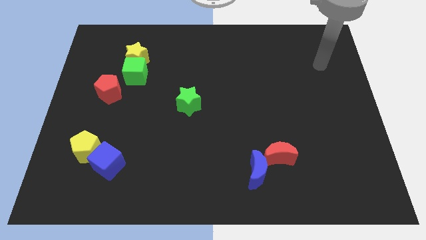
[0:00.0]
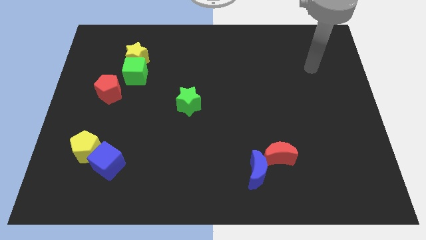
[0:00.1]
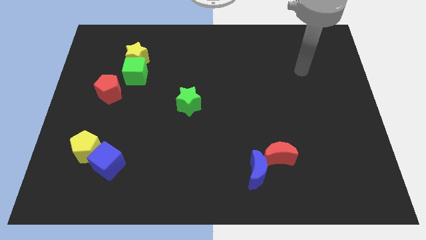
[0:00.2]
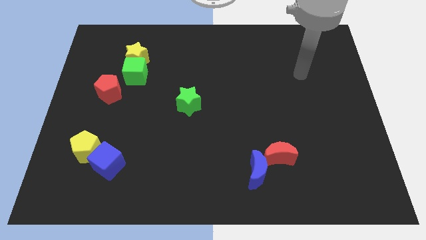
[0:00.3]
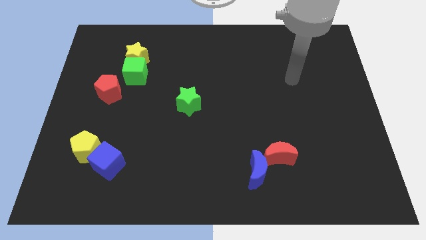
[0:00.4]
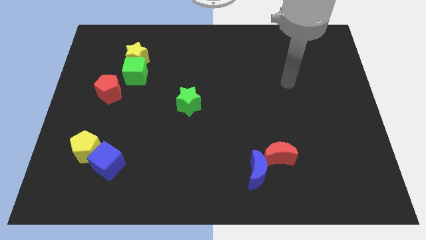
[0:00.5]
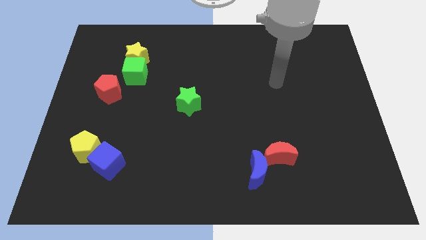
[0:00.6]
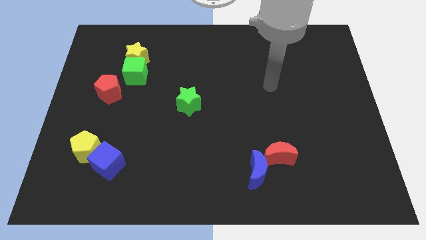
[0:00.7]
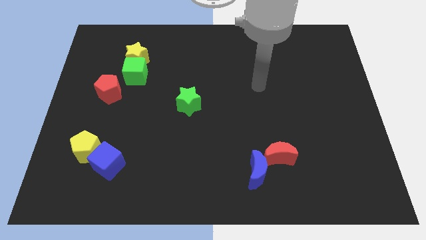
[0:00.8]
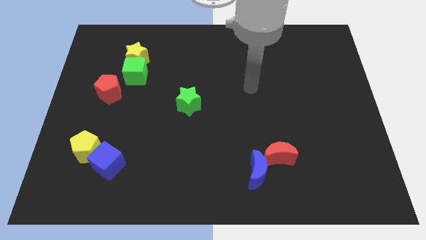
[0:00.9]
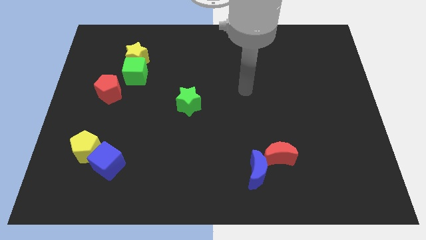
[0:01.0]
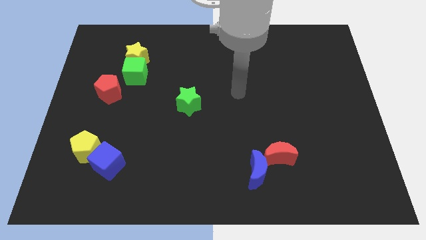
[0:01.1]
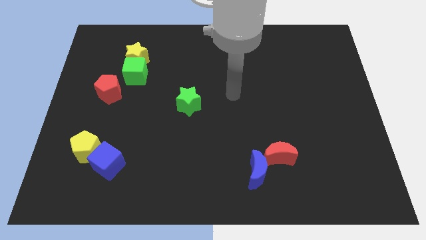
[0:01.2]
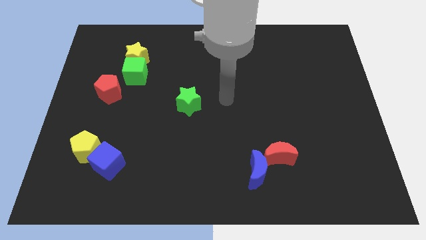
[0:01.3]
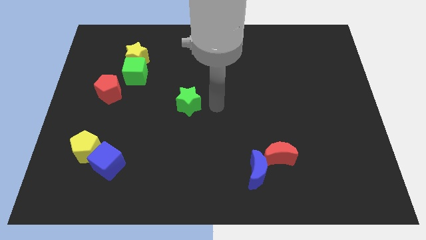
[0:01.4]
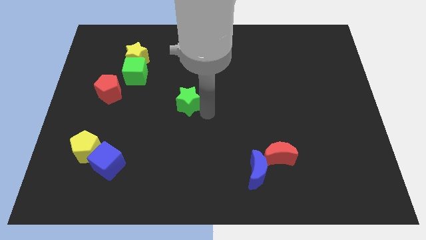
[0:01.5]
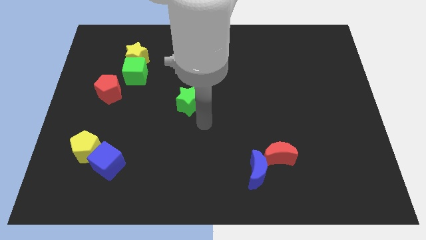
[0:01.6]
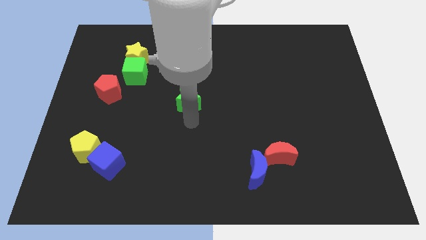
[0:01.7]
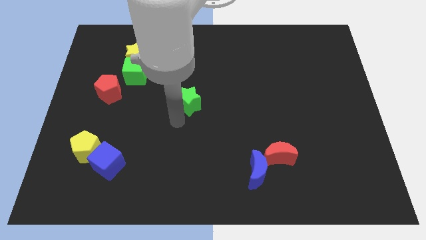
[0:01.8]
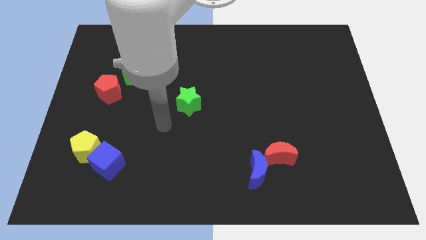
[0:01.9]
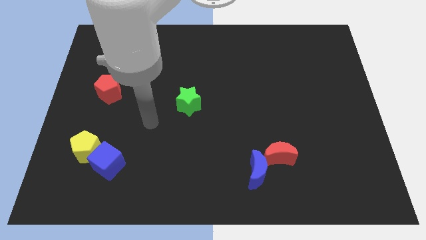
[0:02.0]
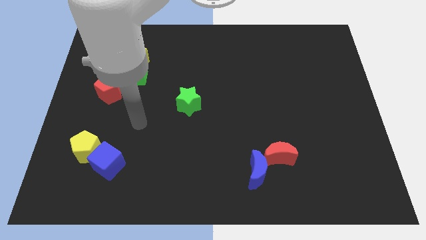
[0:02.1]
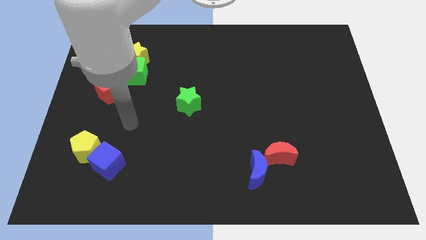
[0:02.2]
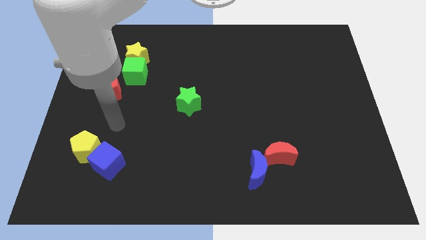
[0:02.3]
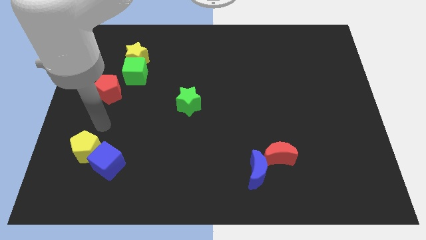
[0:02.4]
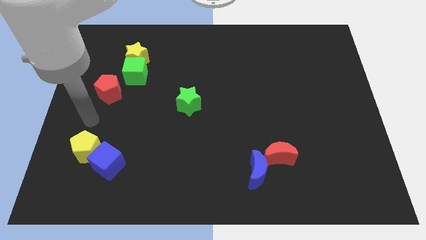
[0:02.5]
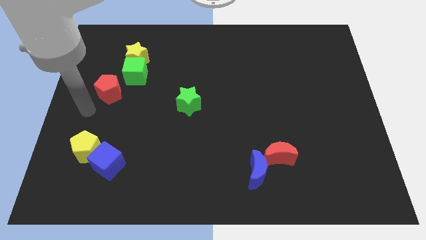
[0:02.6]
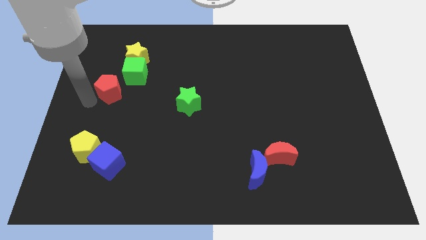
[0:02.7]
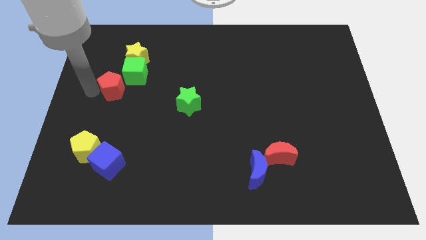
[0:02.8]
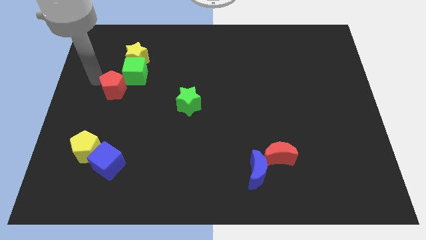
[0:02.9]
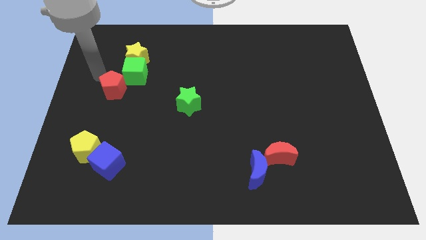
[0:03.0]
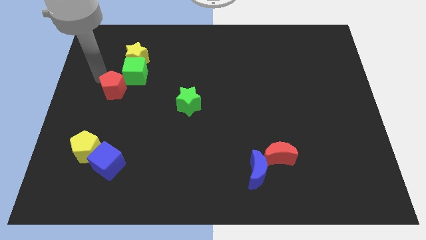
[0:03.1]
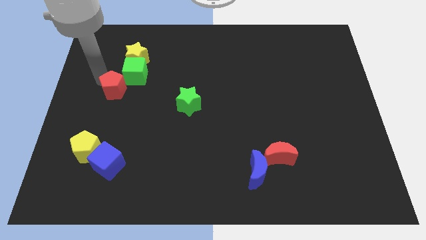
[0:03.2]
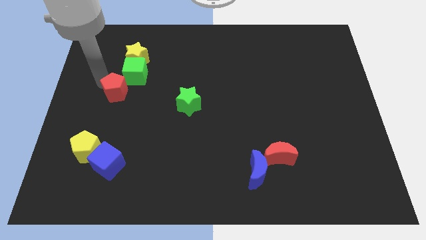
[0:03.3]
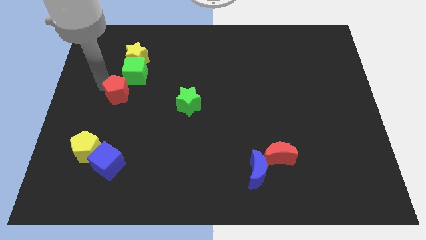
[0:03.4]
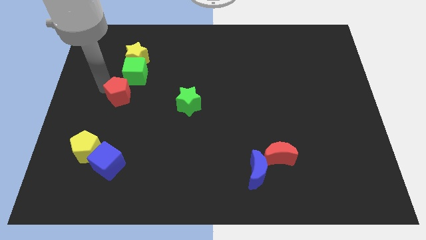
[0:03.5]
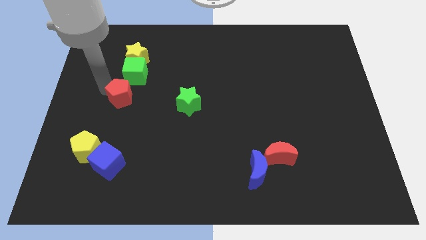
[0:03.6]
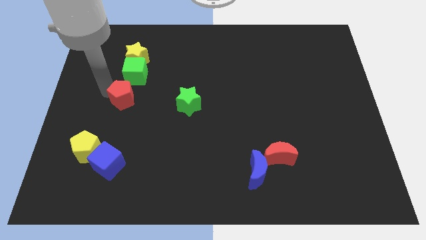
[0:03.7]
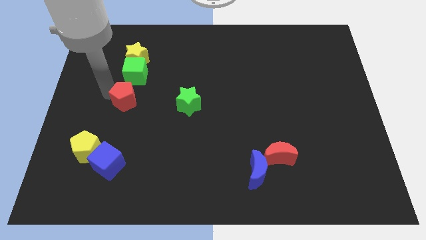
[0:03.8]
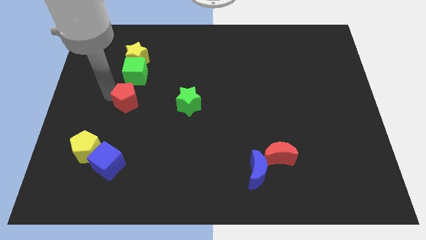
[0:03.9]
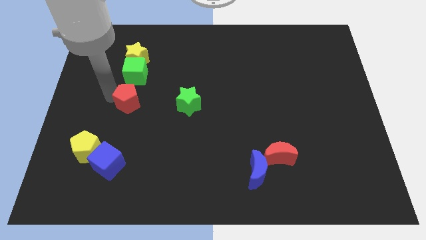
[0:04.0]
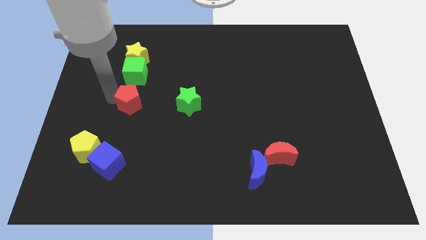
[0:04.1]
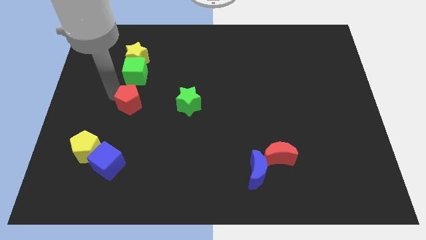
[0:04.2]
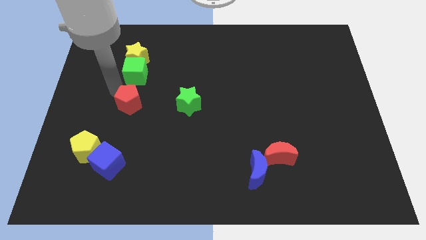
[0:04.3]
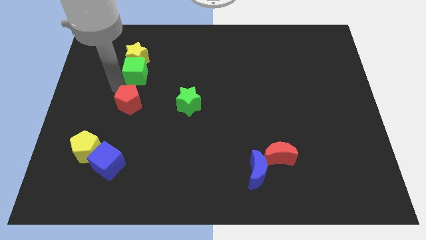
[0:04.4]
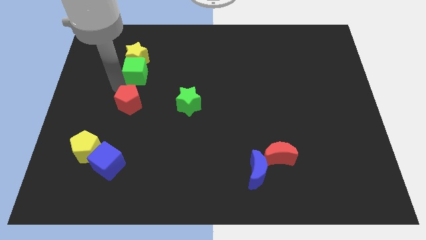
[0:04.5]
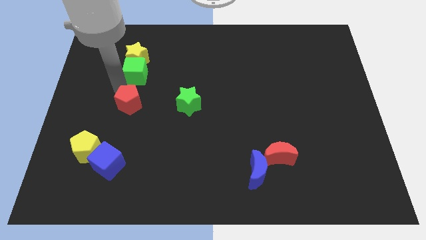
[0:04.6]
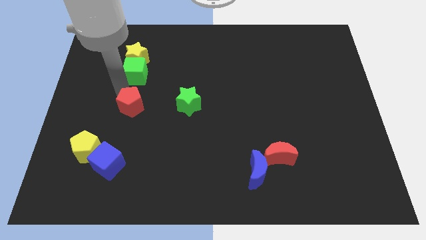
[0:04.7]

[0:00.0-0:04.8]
slide the red pentagon down and then right a bit

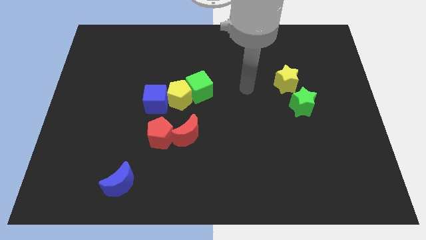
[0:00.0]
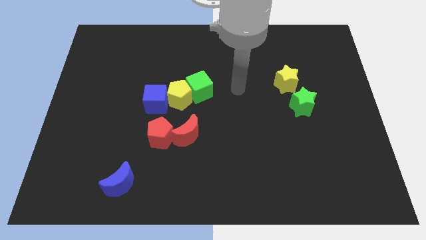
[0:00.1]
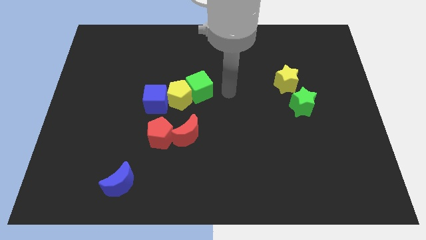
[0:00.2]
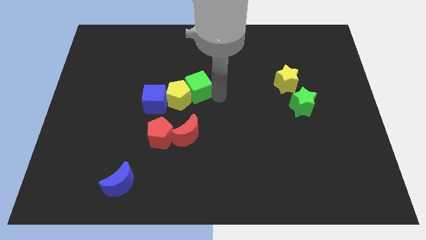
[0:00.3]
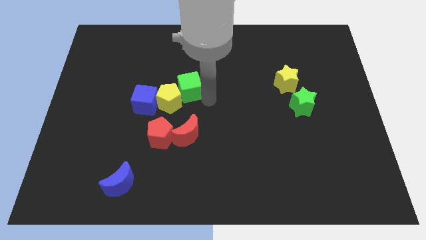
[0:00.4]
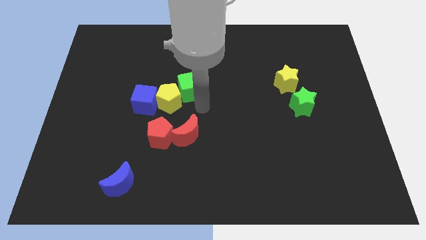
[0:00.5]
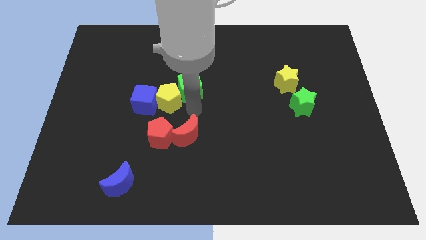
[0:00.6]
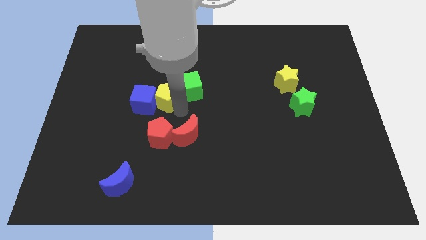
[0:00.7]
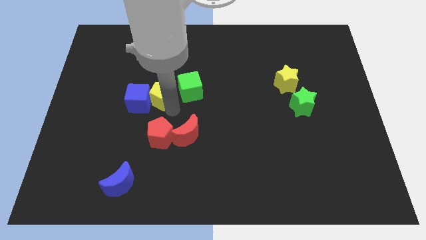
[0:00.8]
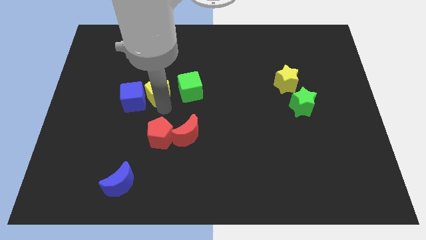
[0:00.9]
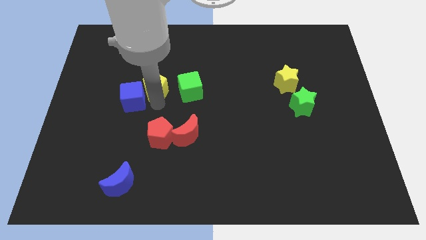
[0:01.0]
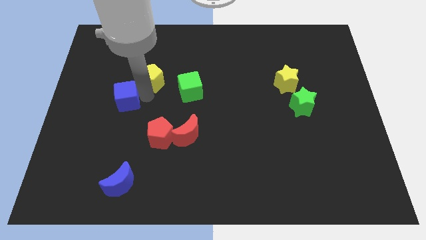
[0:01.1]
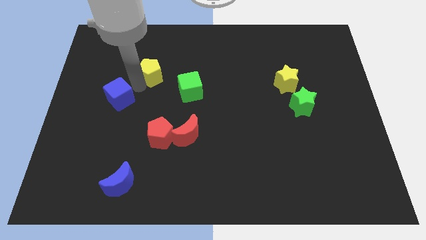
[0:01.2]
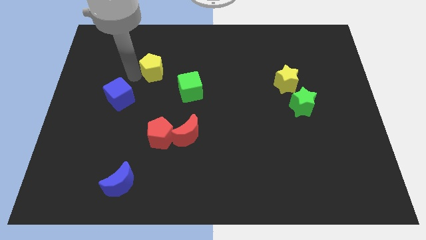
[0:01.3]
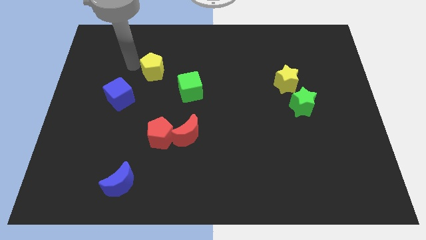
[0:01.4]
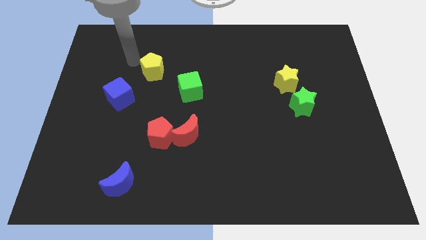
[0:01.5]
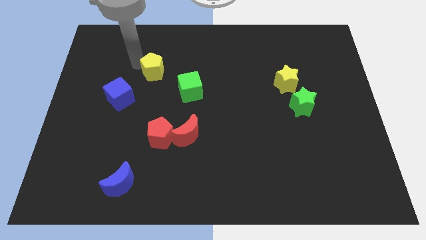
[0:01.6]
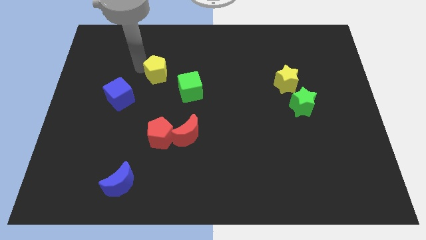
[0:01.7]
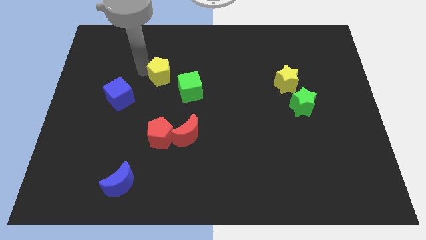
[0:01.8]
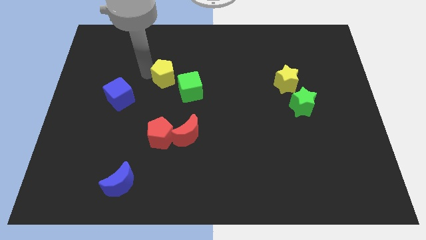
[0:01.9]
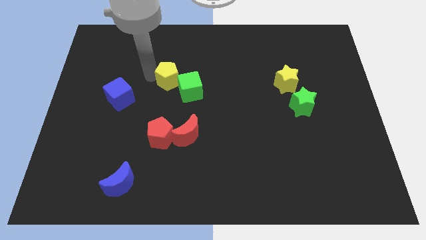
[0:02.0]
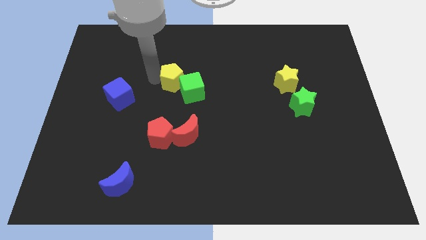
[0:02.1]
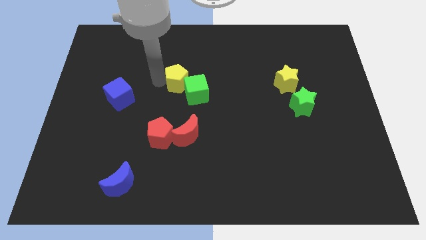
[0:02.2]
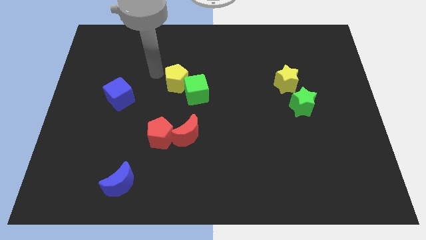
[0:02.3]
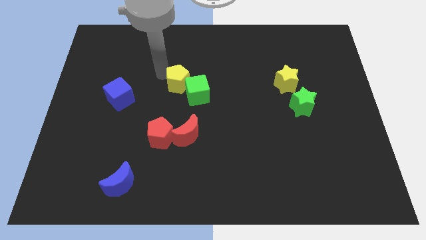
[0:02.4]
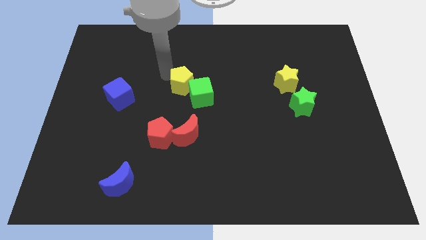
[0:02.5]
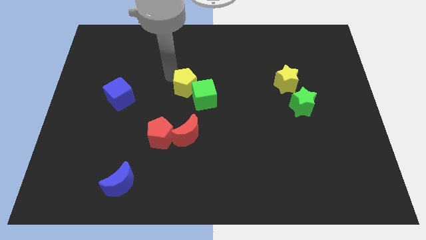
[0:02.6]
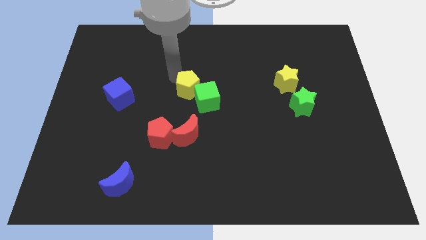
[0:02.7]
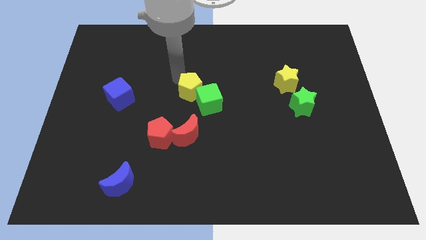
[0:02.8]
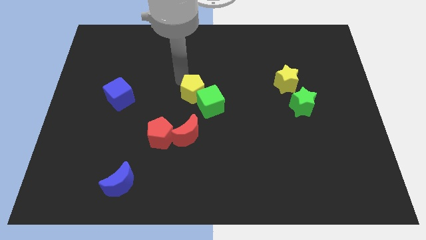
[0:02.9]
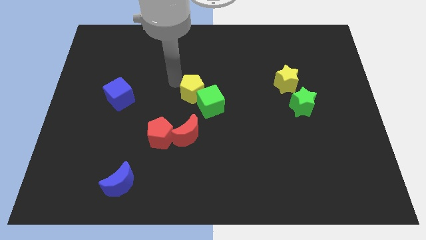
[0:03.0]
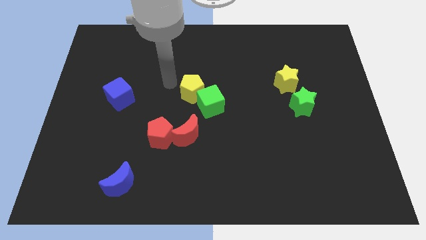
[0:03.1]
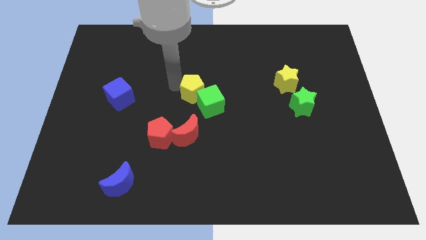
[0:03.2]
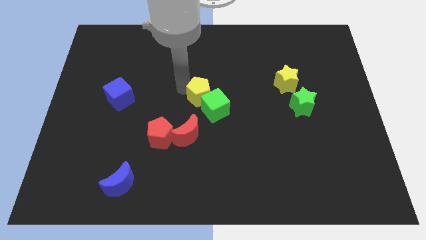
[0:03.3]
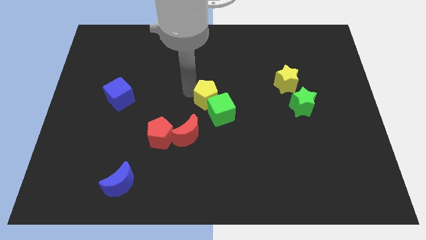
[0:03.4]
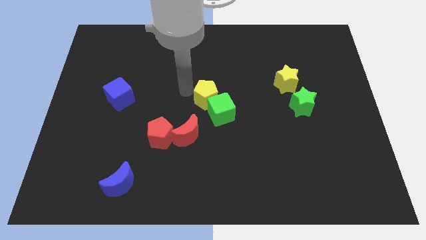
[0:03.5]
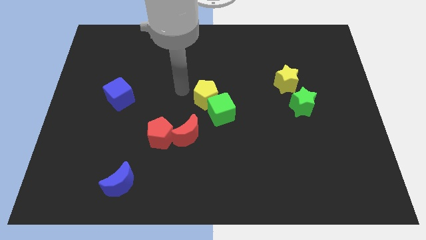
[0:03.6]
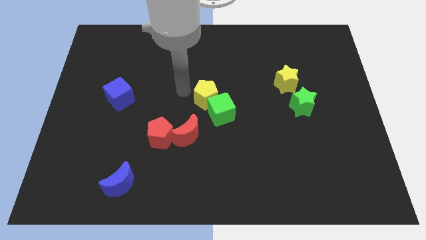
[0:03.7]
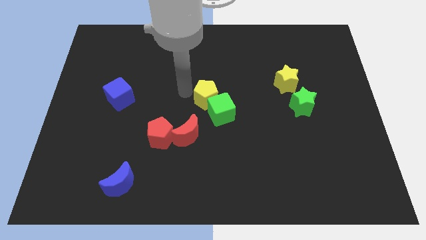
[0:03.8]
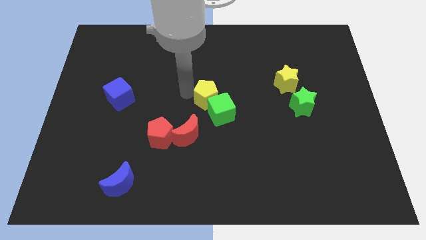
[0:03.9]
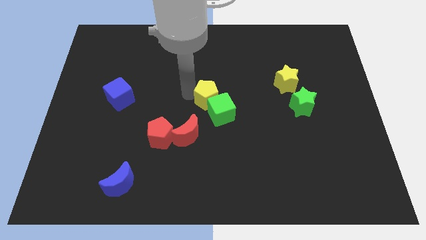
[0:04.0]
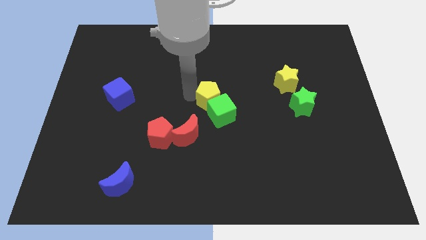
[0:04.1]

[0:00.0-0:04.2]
push the yellow pentagon to the right a little bit
